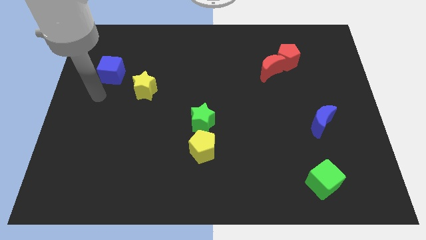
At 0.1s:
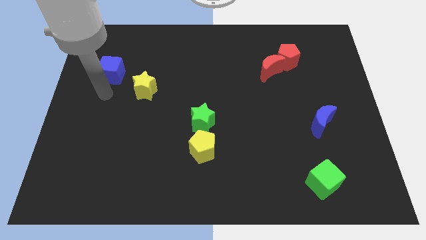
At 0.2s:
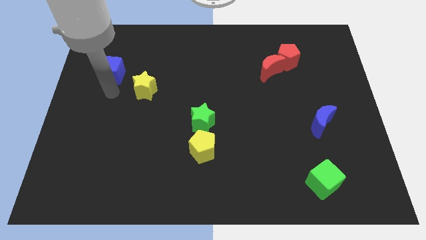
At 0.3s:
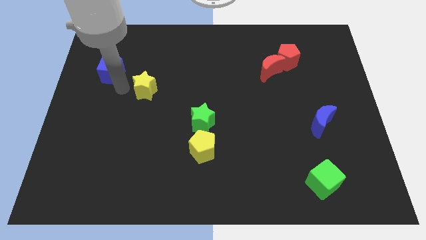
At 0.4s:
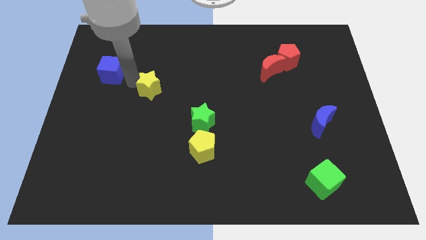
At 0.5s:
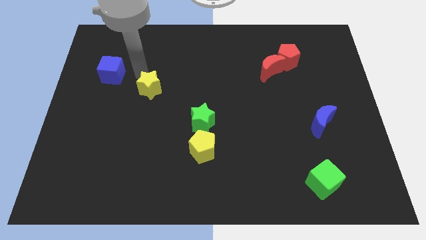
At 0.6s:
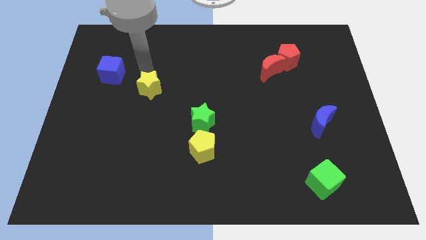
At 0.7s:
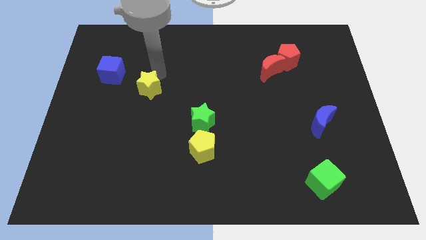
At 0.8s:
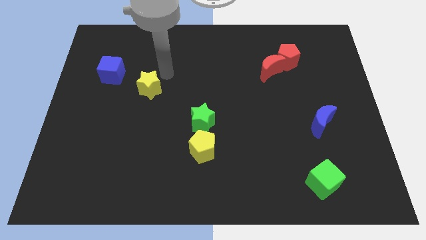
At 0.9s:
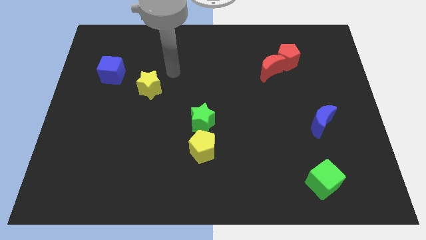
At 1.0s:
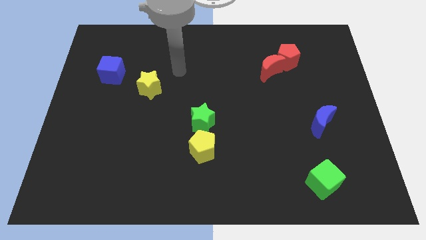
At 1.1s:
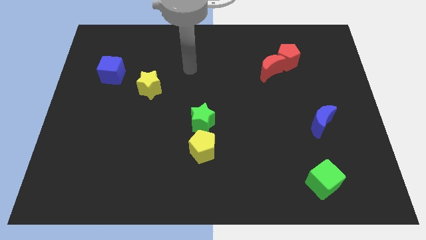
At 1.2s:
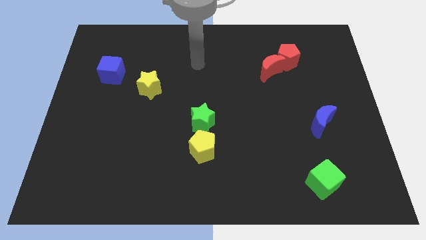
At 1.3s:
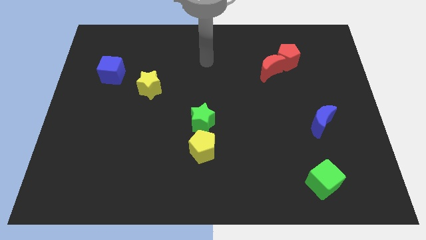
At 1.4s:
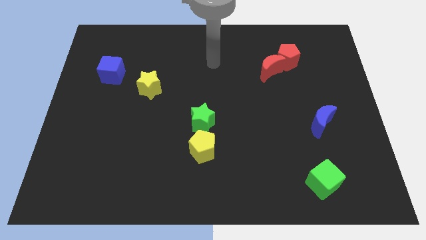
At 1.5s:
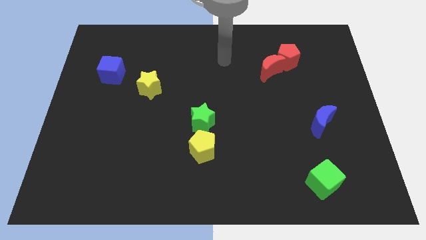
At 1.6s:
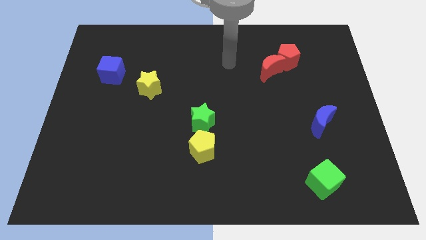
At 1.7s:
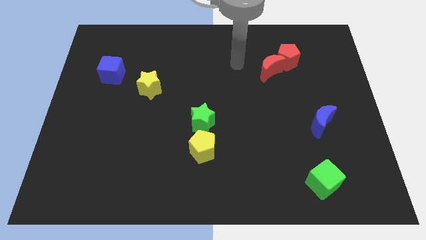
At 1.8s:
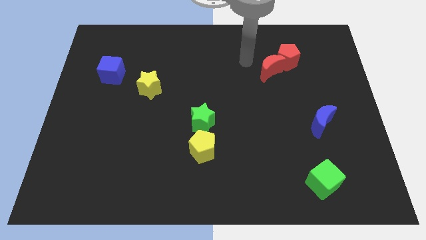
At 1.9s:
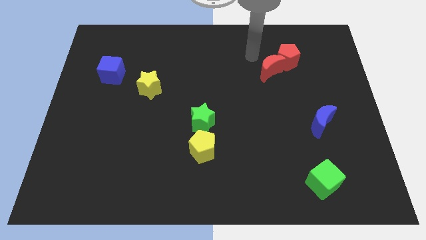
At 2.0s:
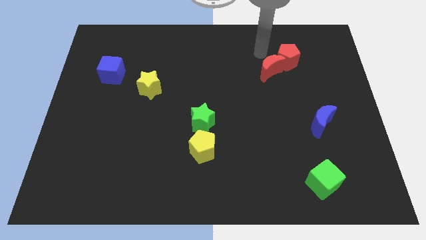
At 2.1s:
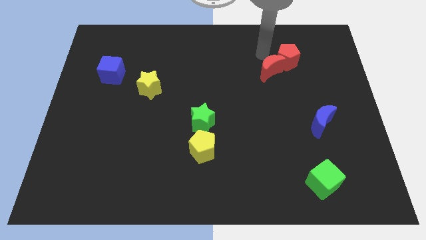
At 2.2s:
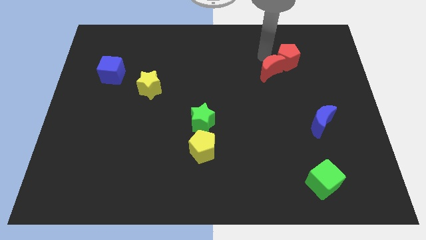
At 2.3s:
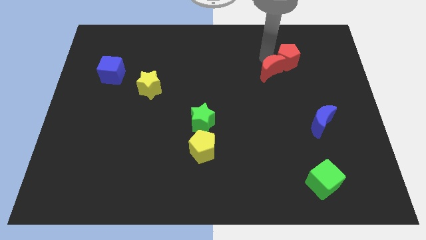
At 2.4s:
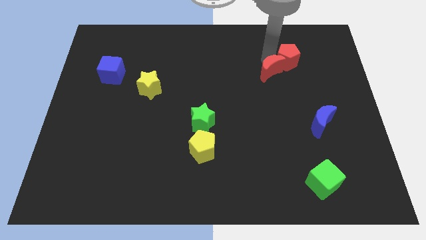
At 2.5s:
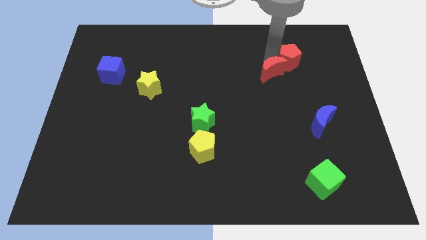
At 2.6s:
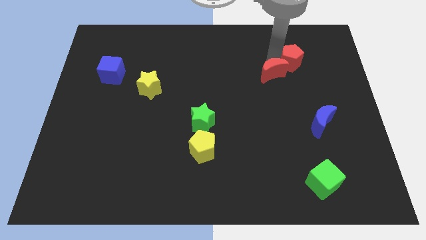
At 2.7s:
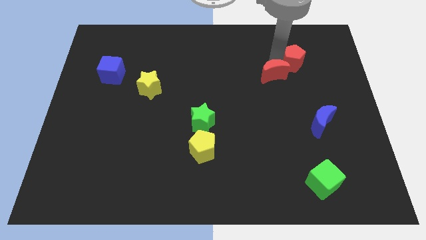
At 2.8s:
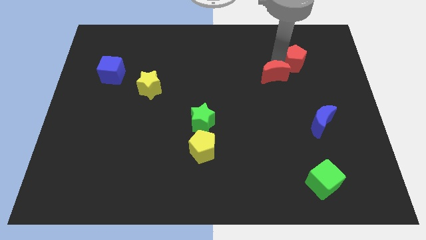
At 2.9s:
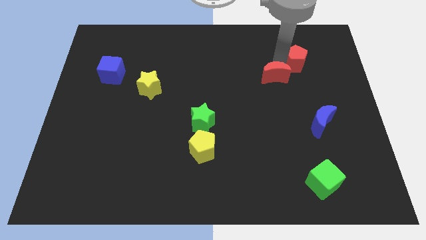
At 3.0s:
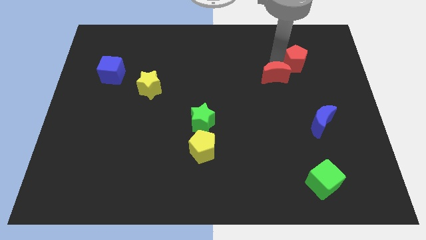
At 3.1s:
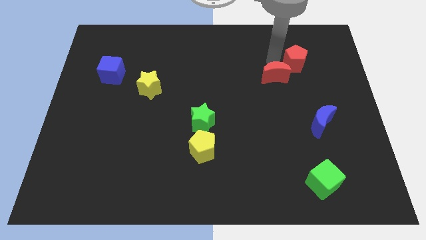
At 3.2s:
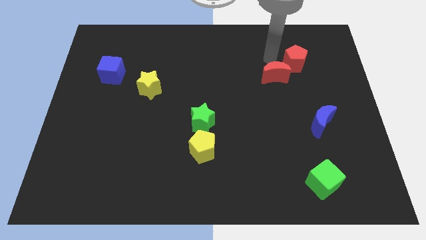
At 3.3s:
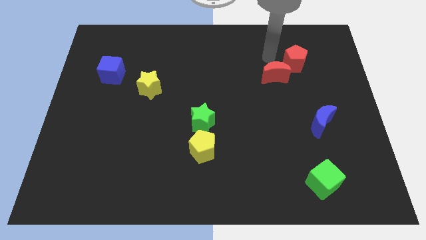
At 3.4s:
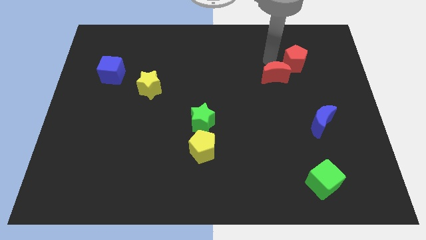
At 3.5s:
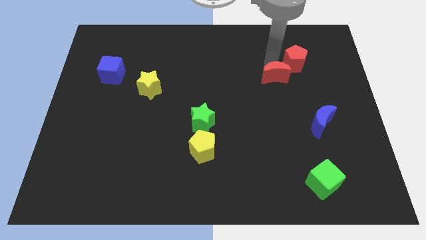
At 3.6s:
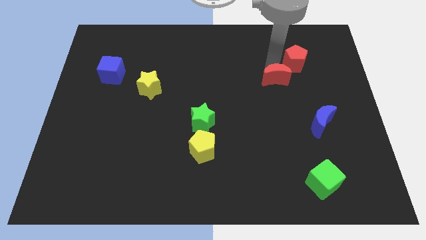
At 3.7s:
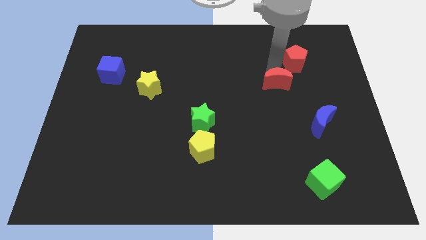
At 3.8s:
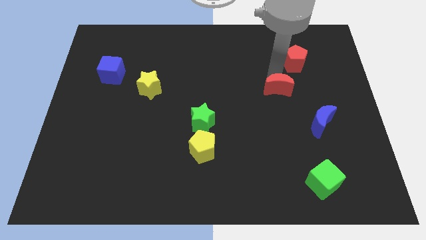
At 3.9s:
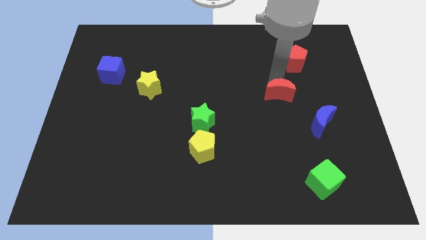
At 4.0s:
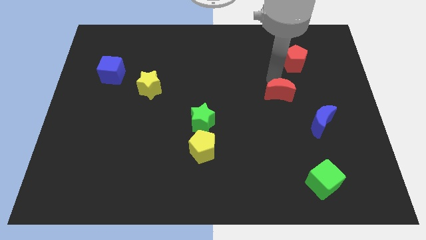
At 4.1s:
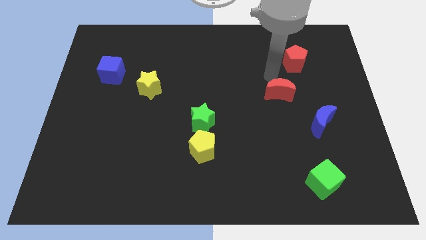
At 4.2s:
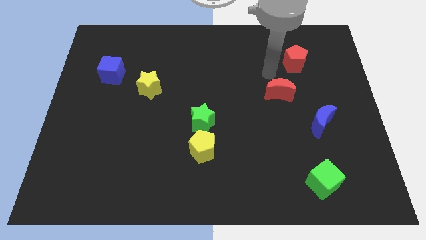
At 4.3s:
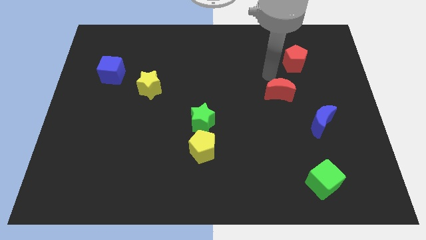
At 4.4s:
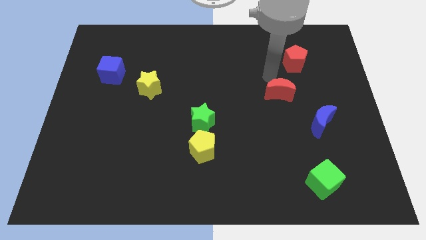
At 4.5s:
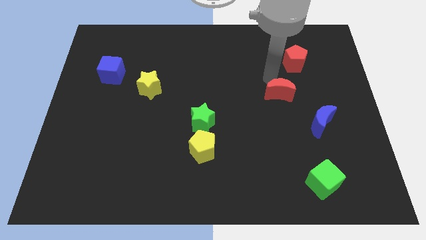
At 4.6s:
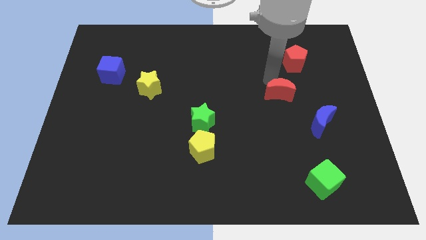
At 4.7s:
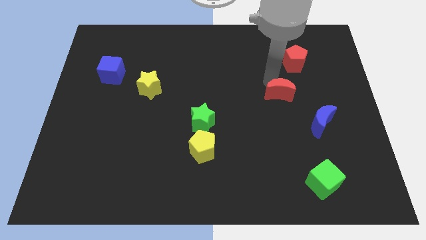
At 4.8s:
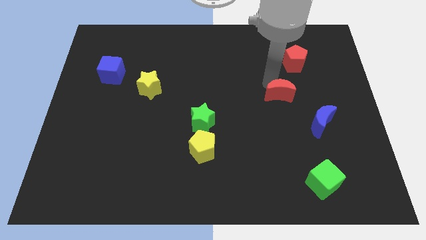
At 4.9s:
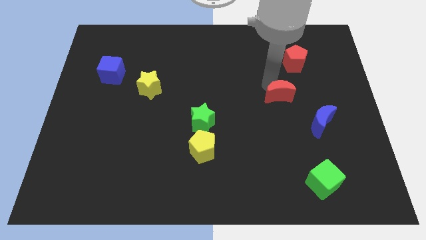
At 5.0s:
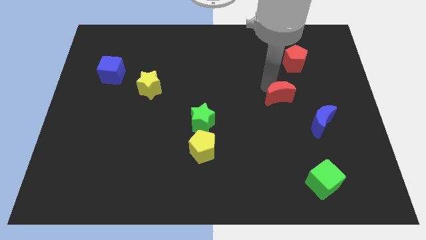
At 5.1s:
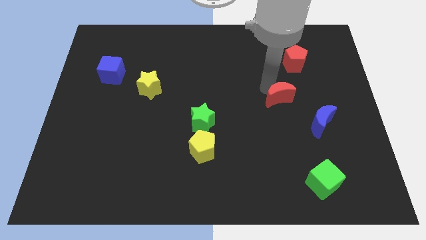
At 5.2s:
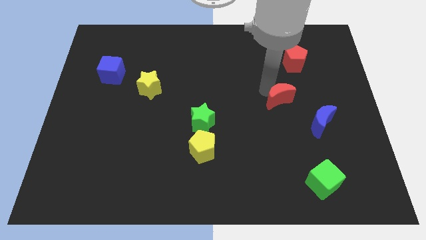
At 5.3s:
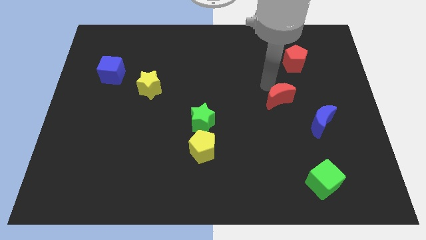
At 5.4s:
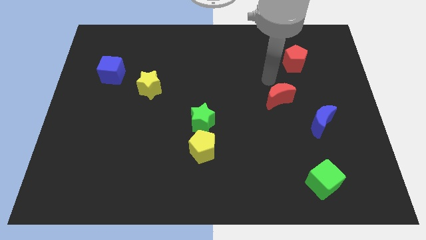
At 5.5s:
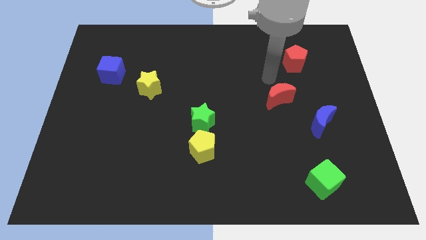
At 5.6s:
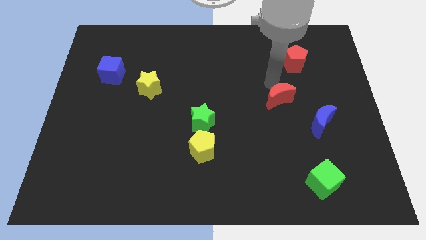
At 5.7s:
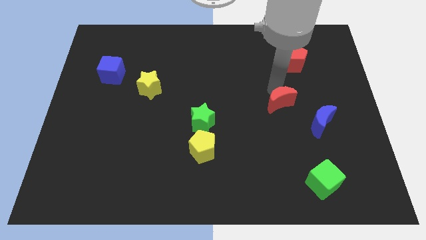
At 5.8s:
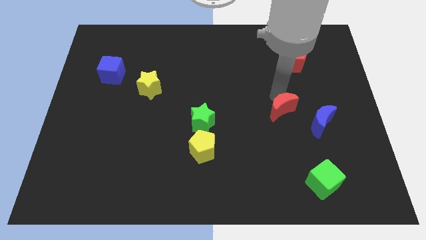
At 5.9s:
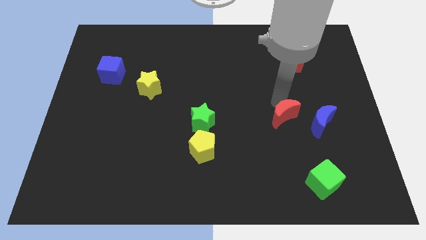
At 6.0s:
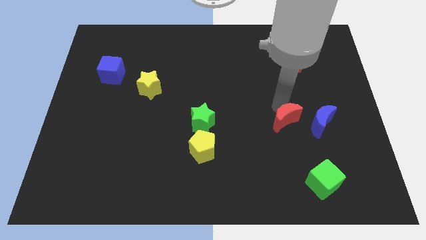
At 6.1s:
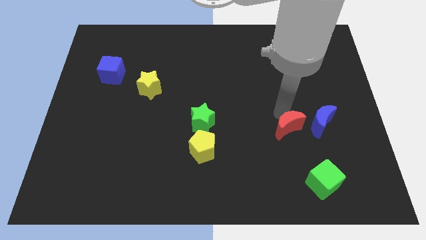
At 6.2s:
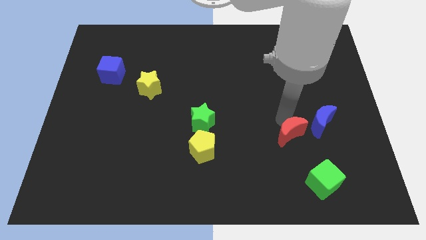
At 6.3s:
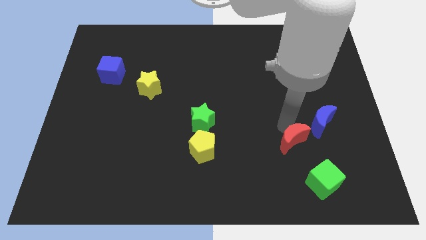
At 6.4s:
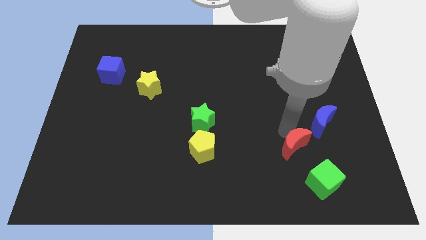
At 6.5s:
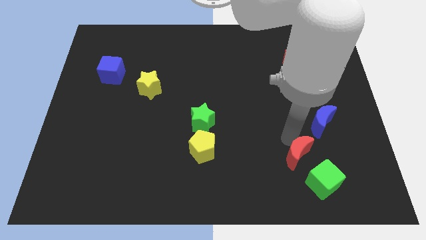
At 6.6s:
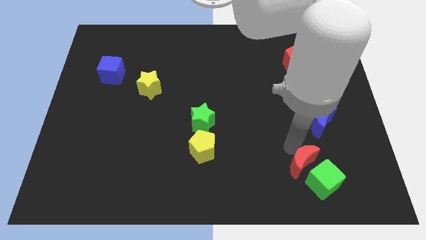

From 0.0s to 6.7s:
put the red moon close to the green cube

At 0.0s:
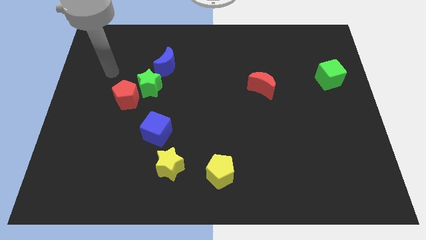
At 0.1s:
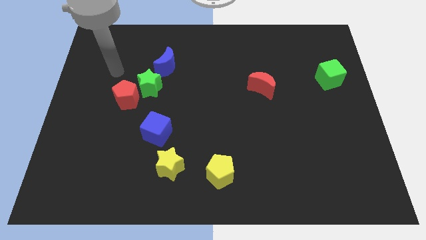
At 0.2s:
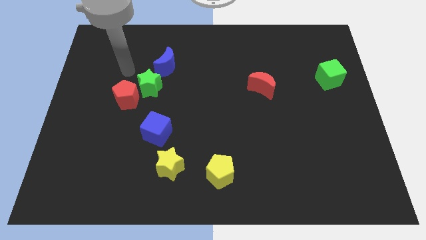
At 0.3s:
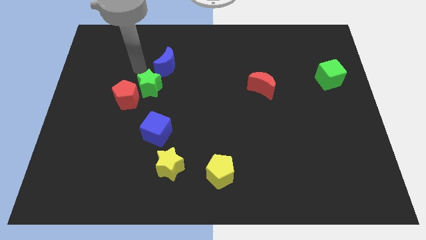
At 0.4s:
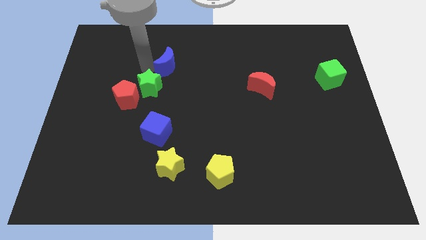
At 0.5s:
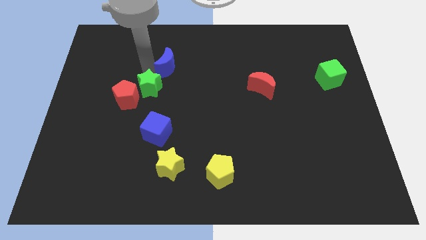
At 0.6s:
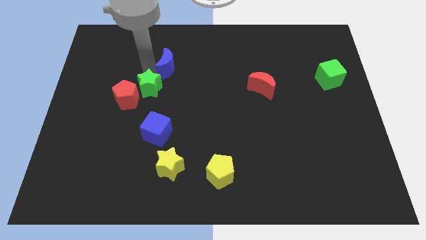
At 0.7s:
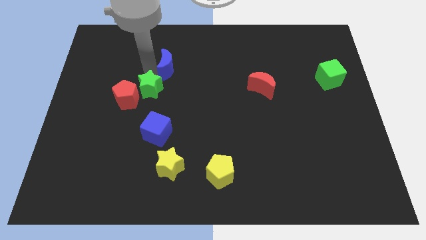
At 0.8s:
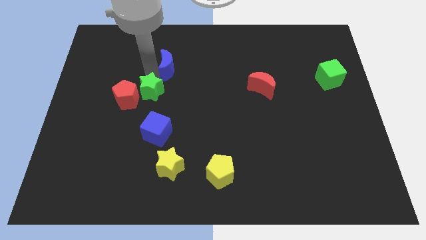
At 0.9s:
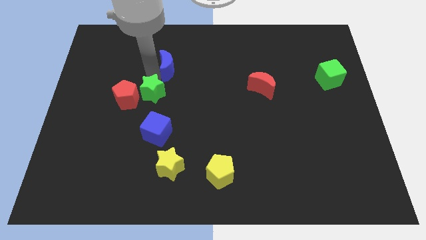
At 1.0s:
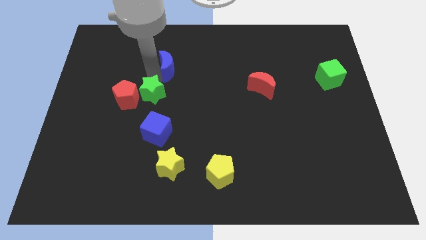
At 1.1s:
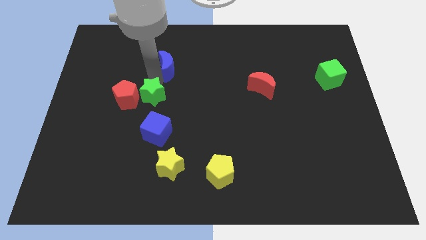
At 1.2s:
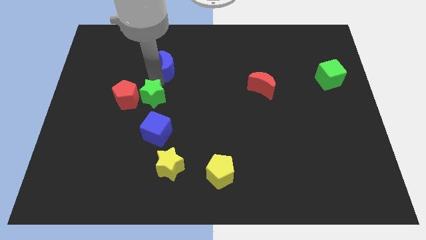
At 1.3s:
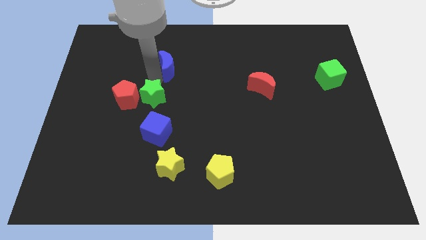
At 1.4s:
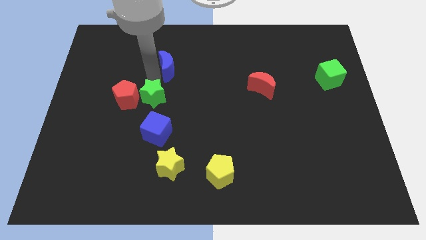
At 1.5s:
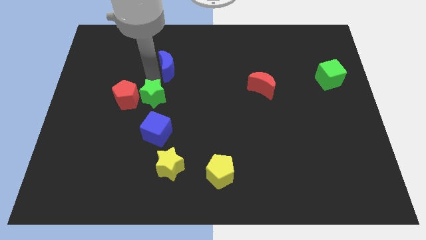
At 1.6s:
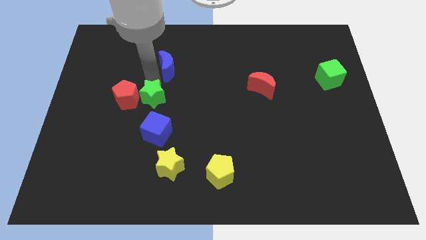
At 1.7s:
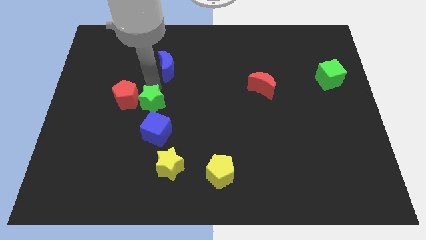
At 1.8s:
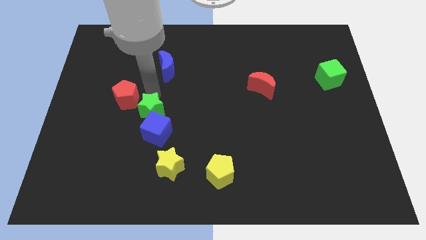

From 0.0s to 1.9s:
push the green star close to the blue cube
